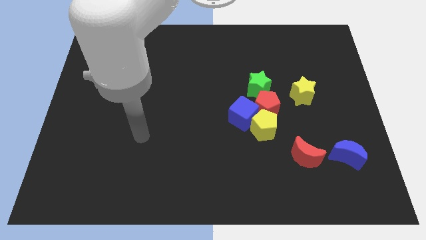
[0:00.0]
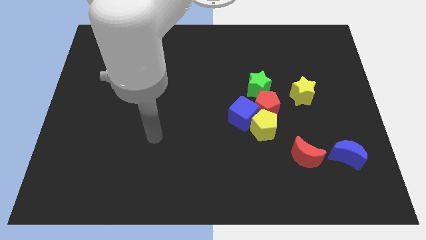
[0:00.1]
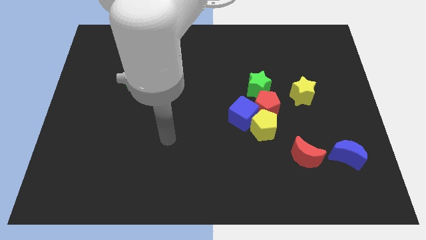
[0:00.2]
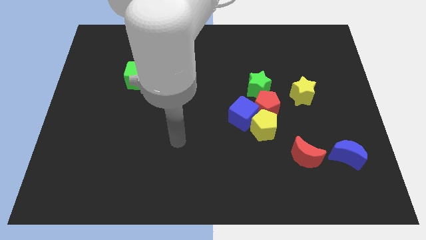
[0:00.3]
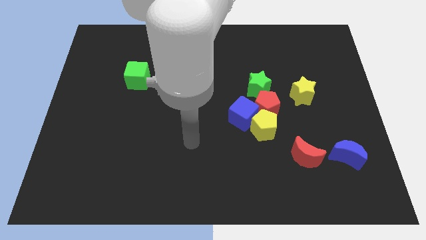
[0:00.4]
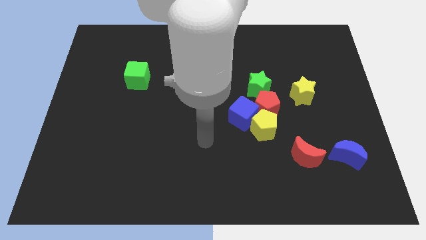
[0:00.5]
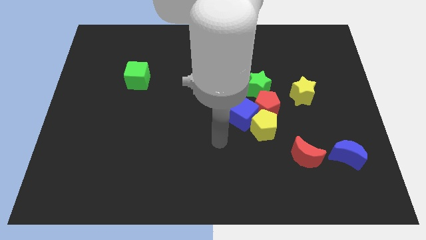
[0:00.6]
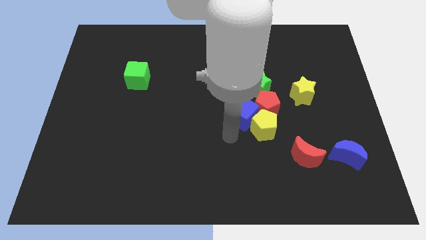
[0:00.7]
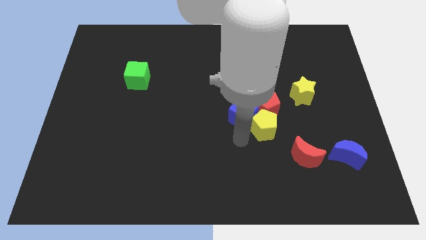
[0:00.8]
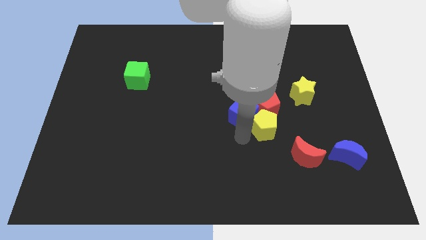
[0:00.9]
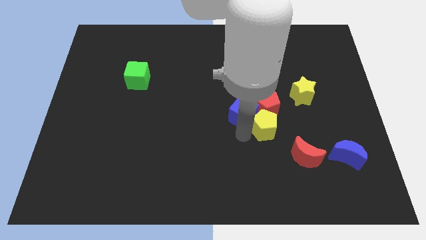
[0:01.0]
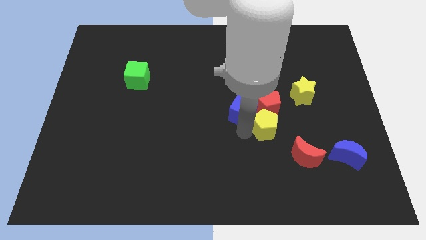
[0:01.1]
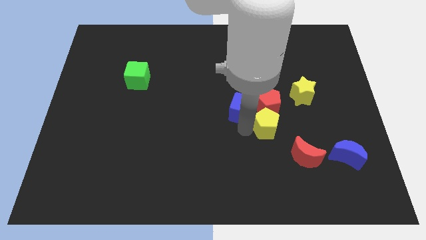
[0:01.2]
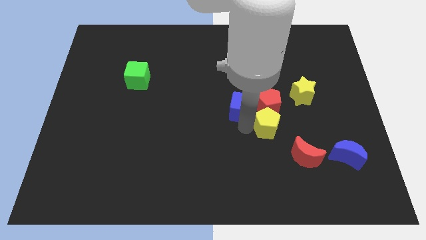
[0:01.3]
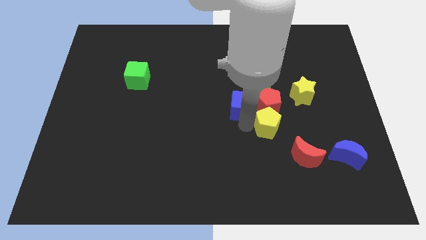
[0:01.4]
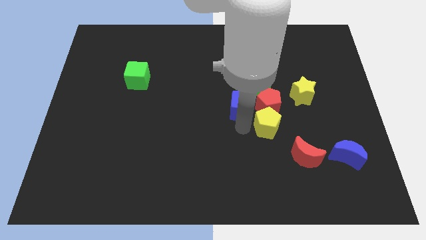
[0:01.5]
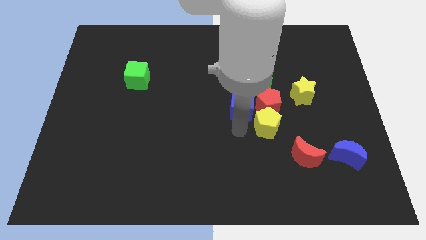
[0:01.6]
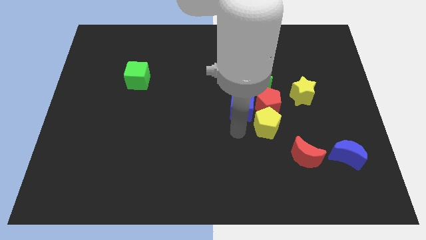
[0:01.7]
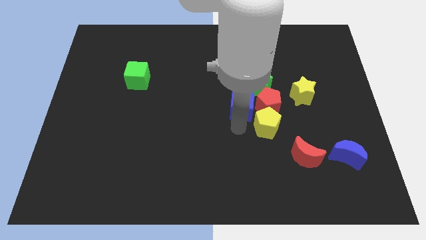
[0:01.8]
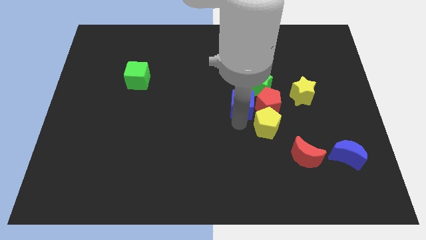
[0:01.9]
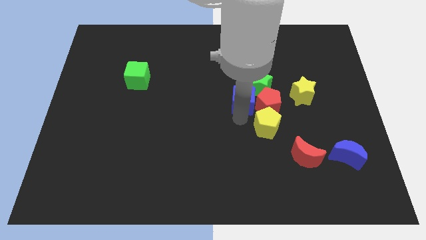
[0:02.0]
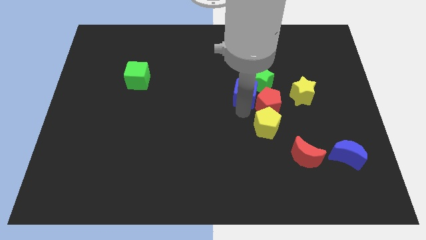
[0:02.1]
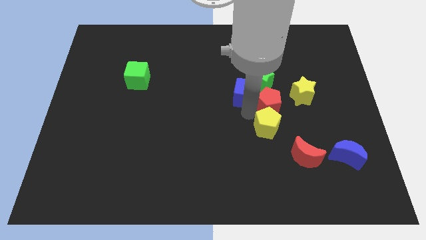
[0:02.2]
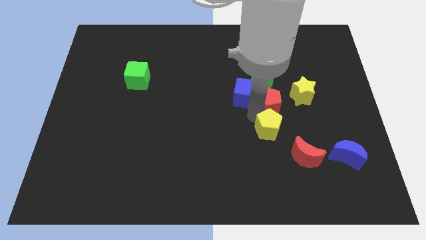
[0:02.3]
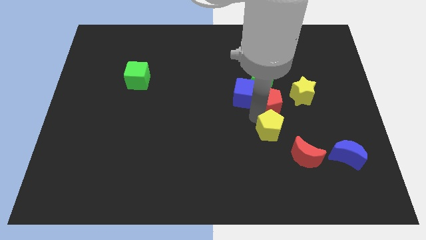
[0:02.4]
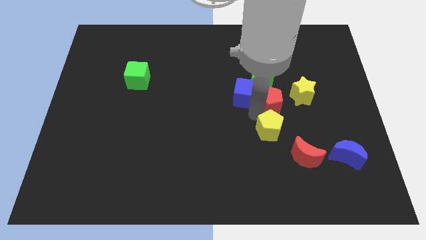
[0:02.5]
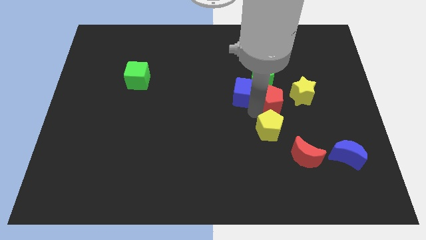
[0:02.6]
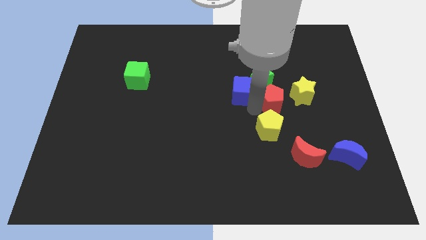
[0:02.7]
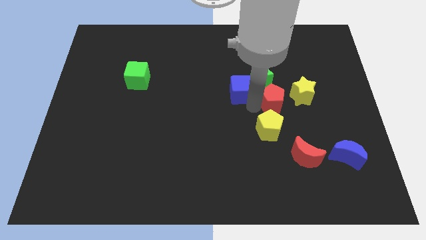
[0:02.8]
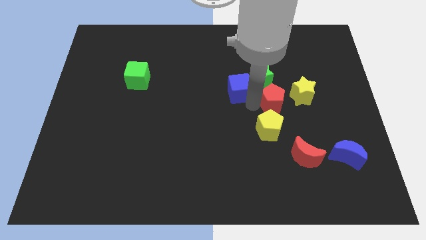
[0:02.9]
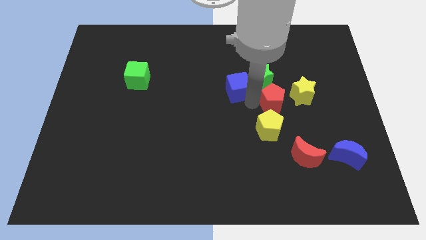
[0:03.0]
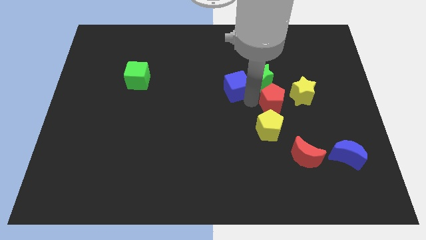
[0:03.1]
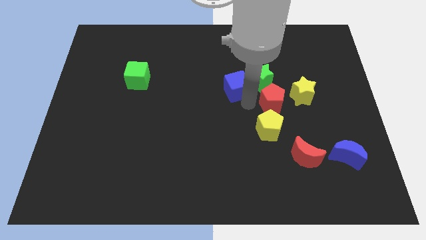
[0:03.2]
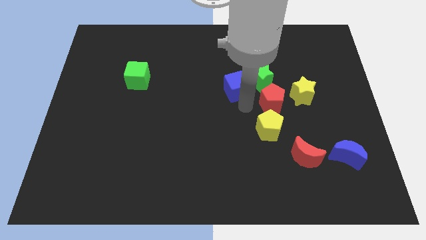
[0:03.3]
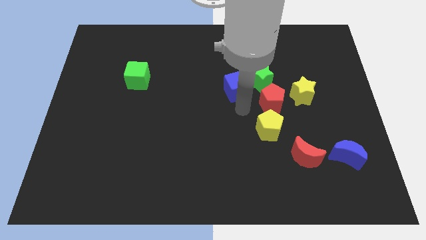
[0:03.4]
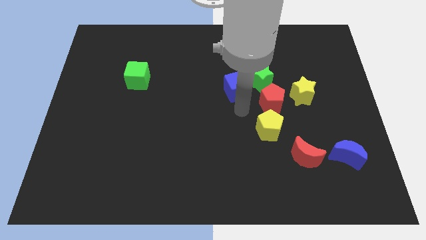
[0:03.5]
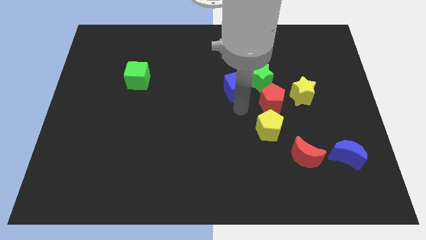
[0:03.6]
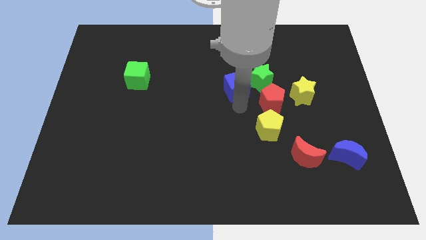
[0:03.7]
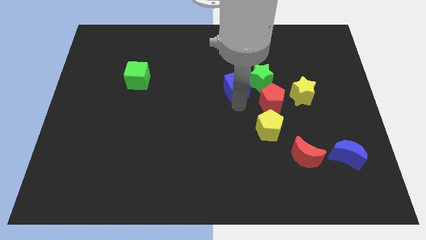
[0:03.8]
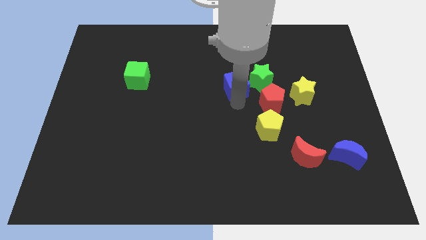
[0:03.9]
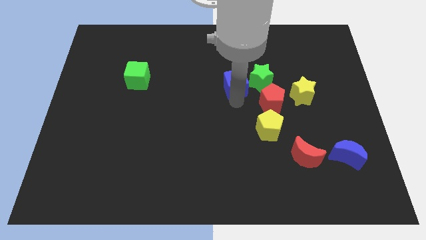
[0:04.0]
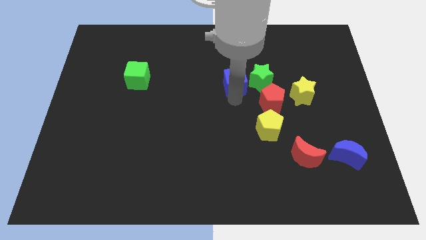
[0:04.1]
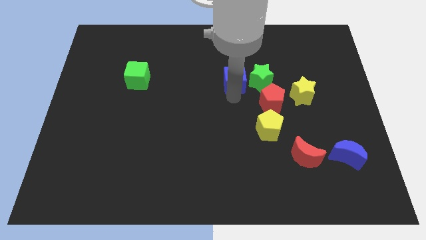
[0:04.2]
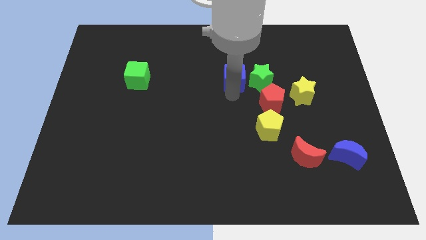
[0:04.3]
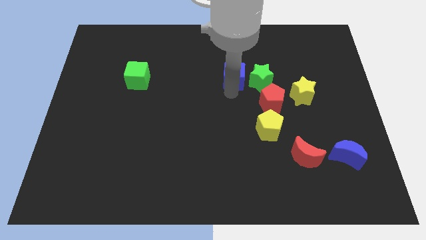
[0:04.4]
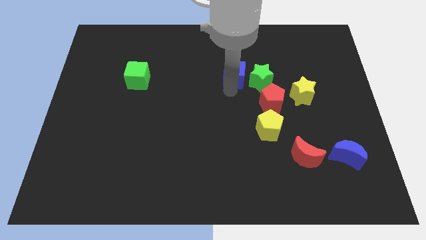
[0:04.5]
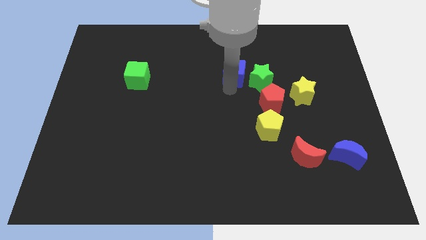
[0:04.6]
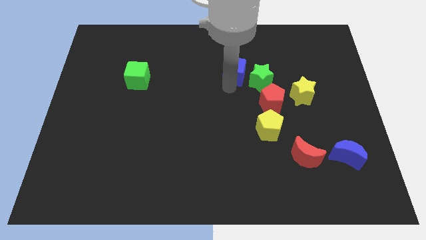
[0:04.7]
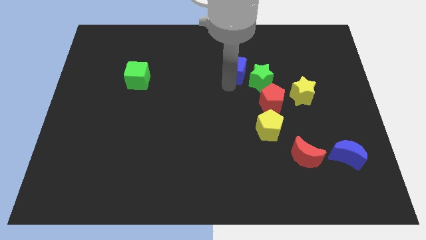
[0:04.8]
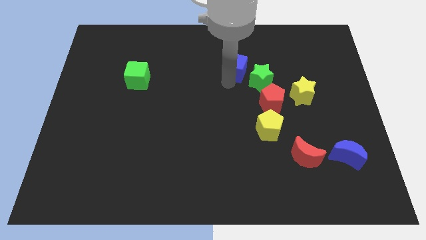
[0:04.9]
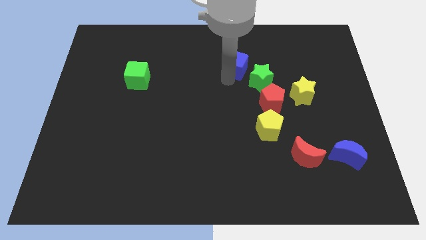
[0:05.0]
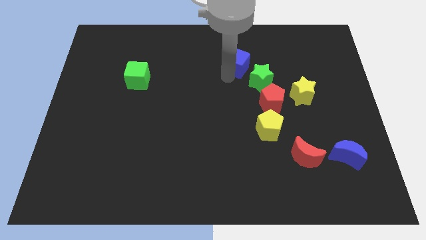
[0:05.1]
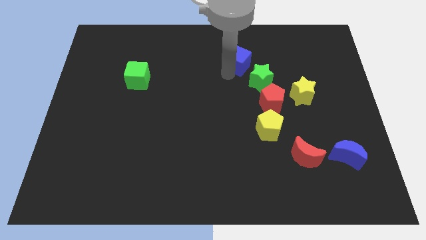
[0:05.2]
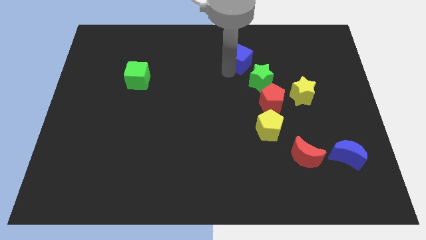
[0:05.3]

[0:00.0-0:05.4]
move the blue cube to the top side of the green star

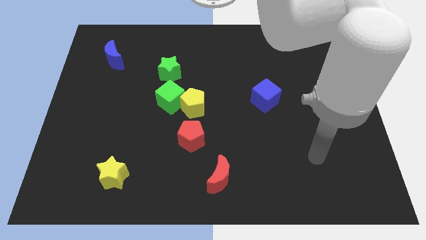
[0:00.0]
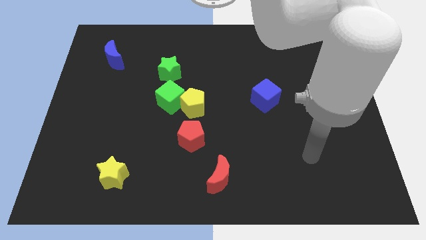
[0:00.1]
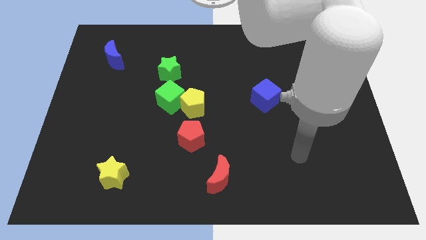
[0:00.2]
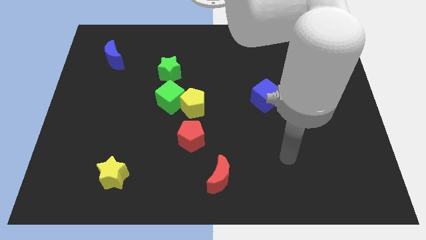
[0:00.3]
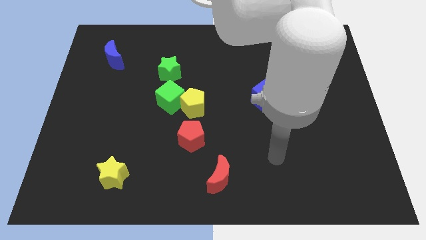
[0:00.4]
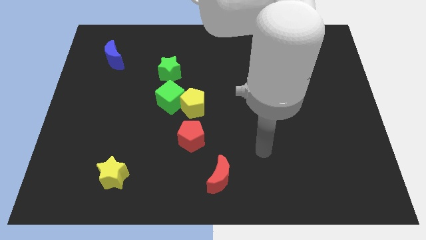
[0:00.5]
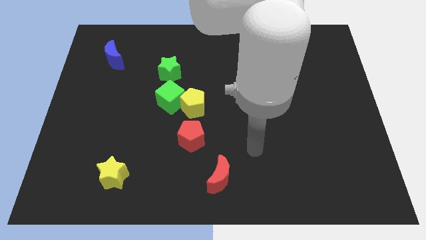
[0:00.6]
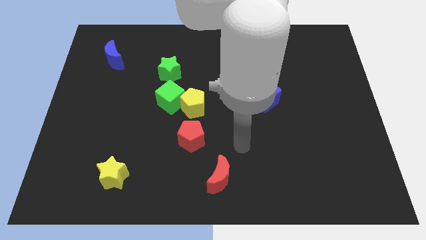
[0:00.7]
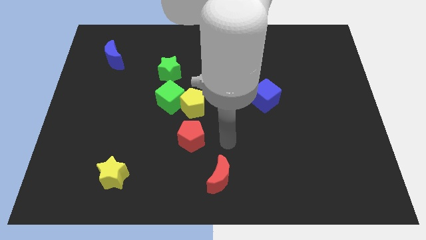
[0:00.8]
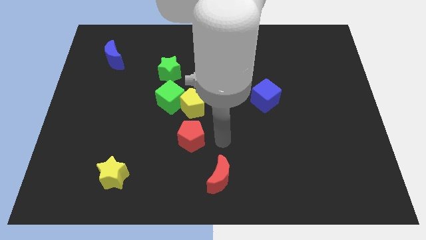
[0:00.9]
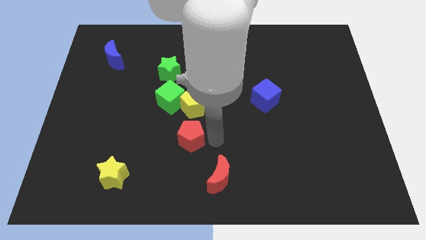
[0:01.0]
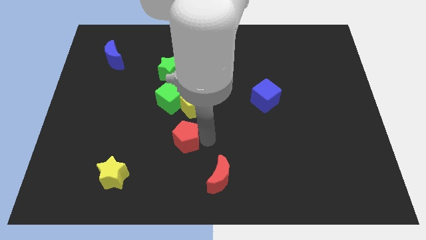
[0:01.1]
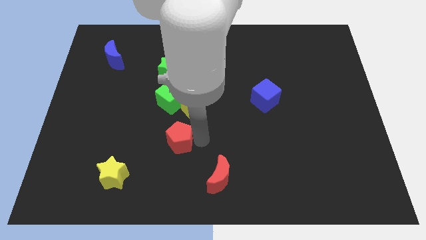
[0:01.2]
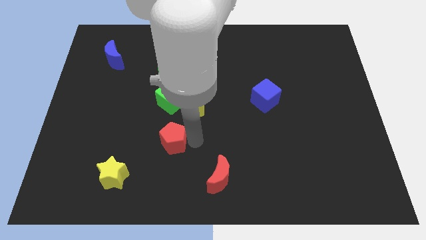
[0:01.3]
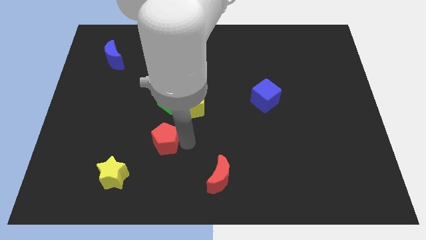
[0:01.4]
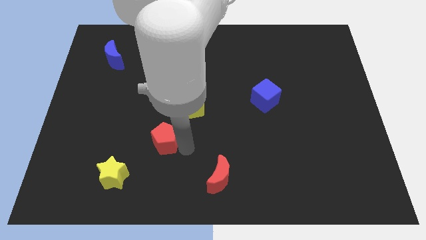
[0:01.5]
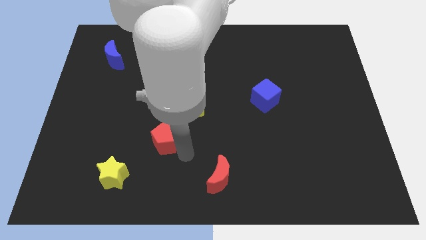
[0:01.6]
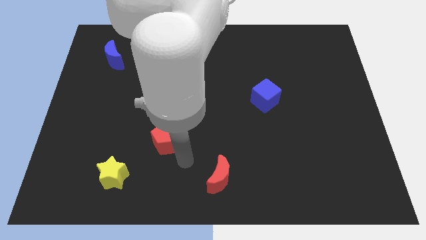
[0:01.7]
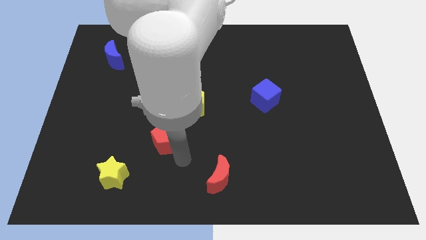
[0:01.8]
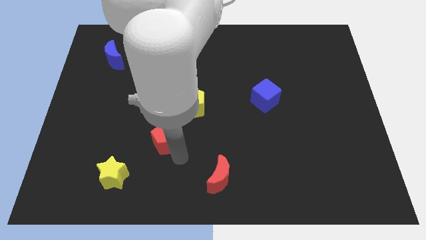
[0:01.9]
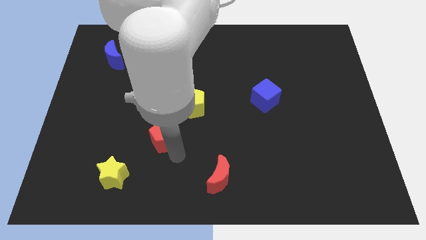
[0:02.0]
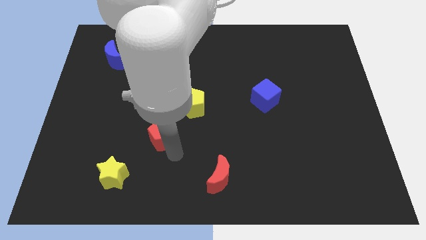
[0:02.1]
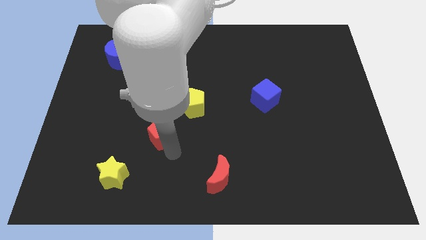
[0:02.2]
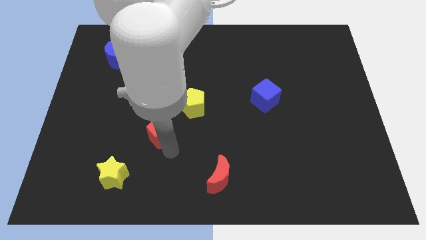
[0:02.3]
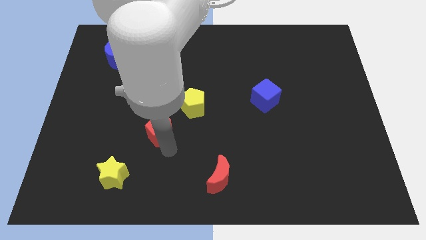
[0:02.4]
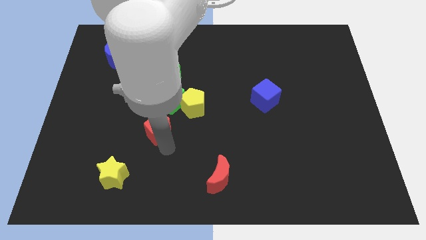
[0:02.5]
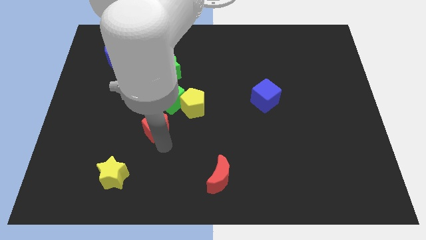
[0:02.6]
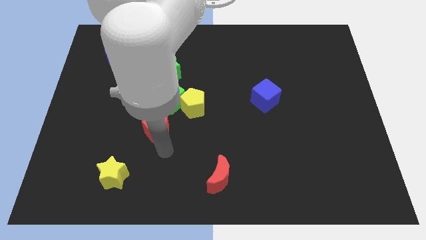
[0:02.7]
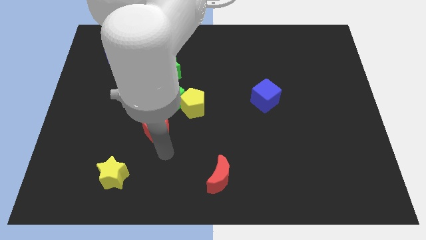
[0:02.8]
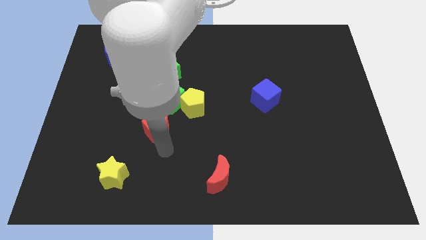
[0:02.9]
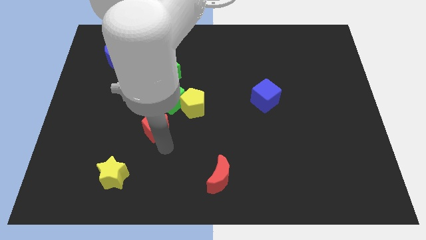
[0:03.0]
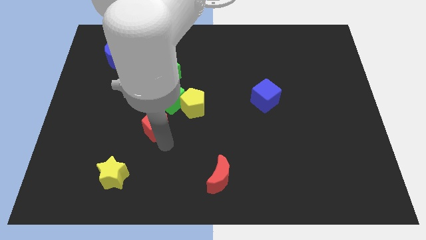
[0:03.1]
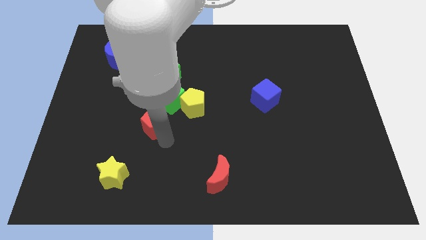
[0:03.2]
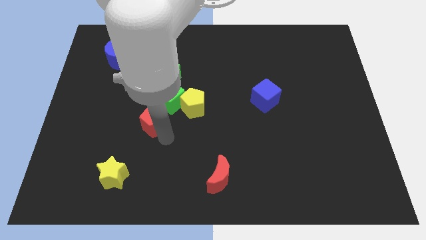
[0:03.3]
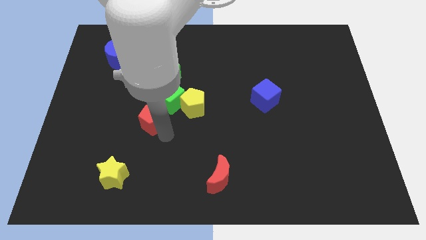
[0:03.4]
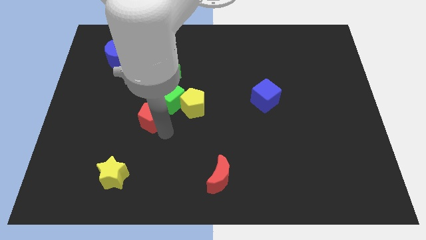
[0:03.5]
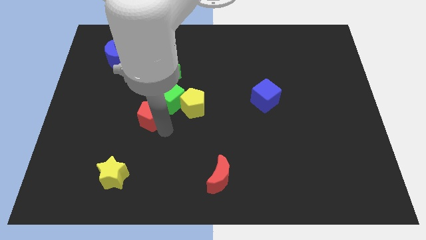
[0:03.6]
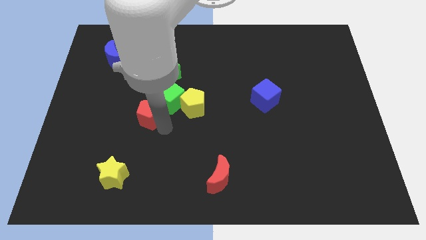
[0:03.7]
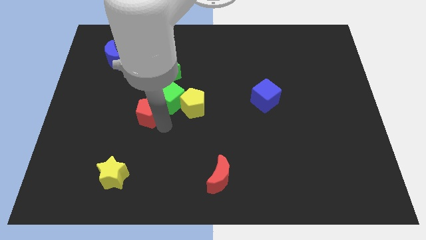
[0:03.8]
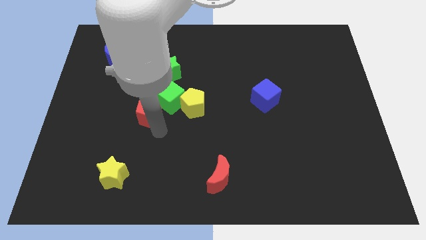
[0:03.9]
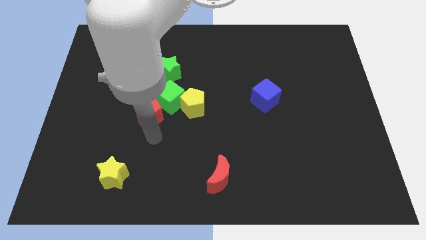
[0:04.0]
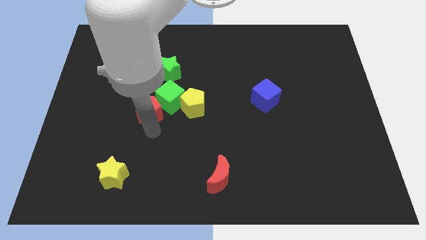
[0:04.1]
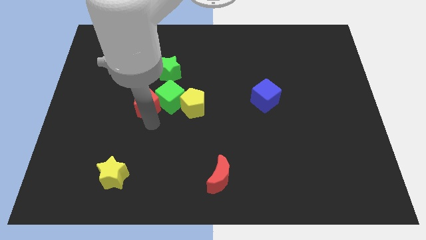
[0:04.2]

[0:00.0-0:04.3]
put the red pentagon diagonally down and to the left of the green star
